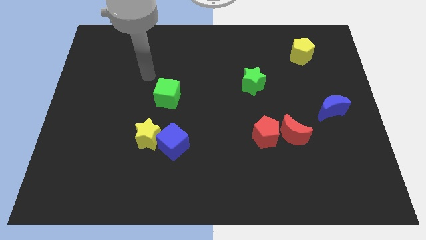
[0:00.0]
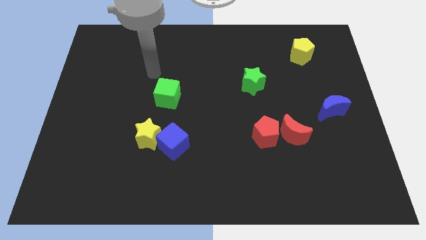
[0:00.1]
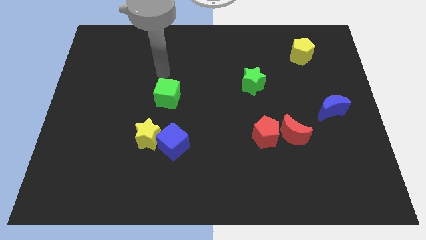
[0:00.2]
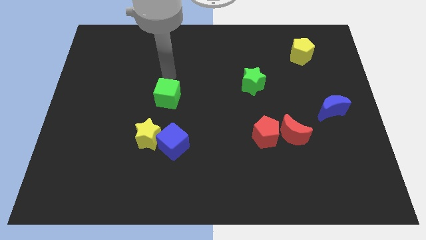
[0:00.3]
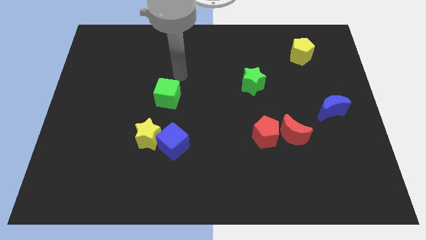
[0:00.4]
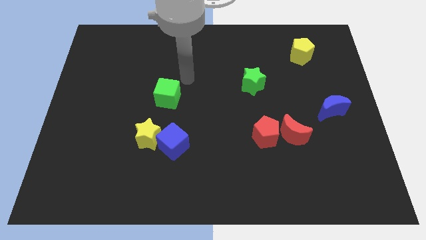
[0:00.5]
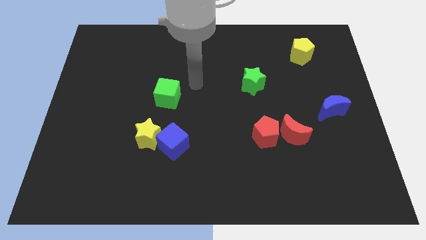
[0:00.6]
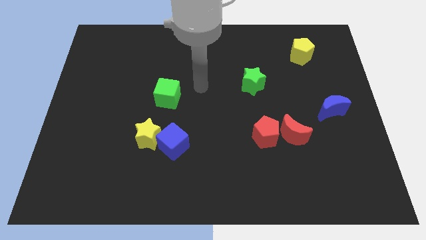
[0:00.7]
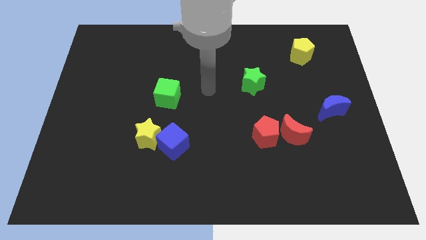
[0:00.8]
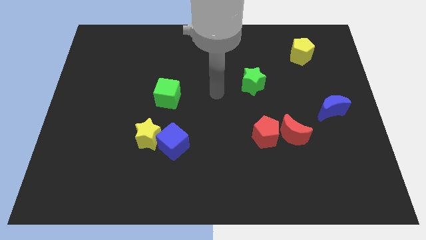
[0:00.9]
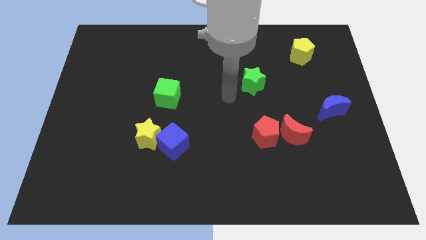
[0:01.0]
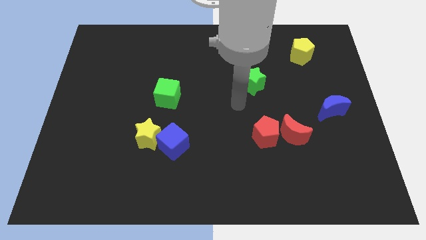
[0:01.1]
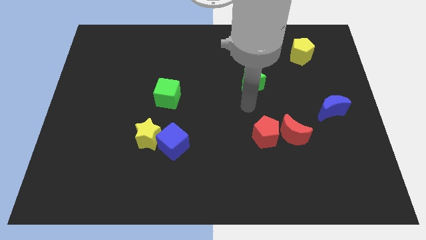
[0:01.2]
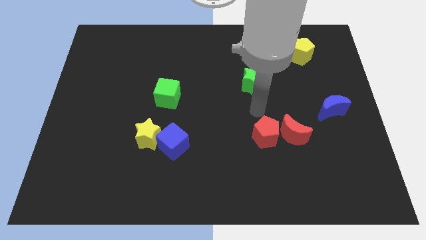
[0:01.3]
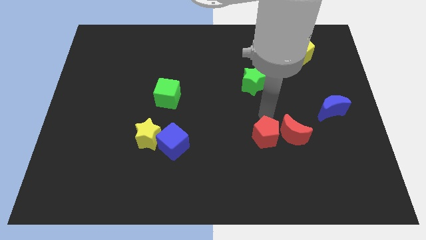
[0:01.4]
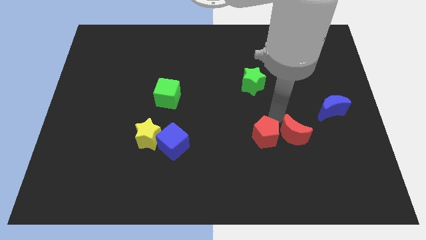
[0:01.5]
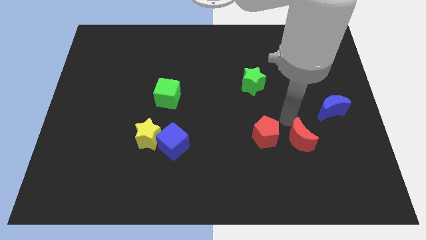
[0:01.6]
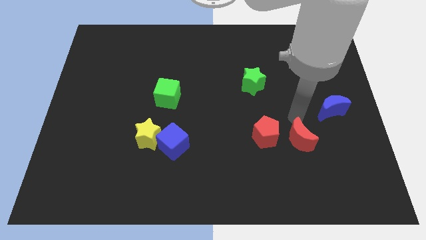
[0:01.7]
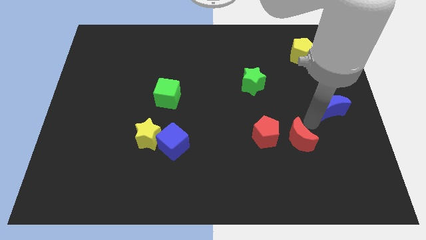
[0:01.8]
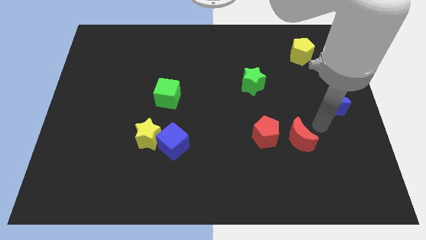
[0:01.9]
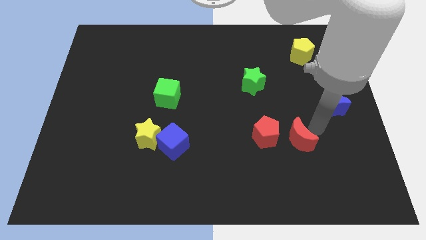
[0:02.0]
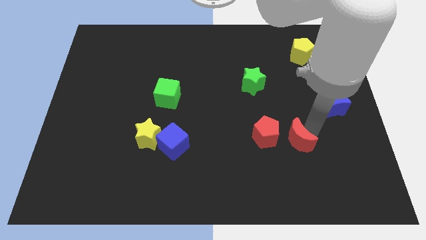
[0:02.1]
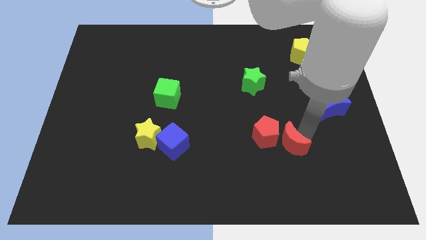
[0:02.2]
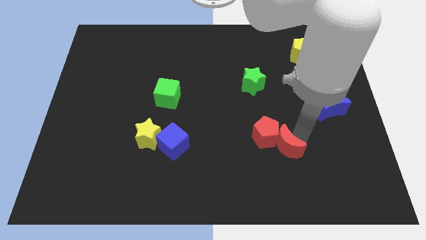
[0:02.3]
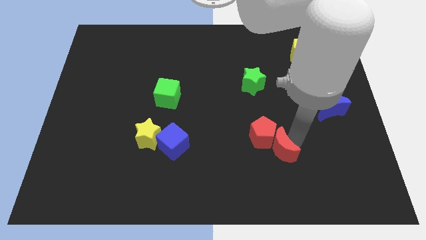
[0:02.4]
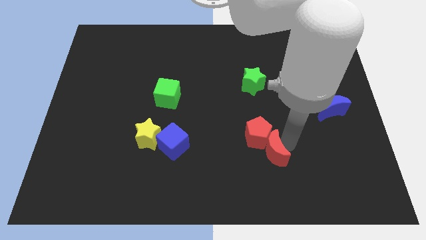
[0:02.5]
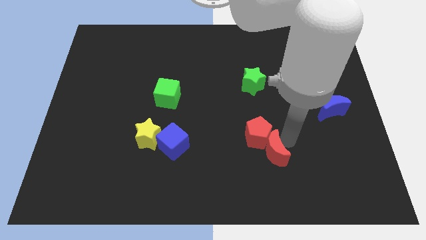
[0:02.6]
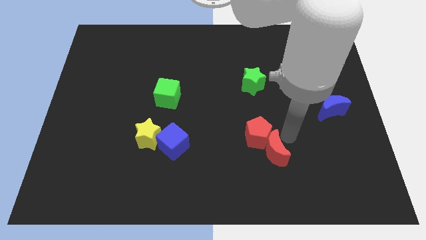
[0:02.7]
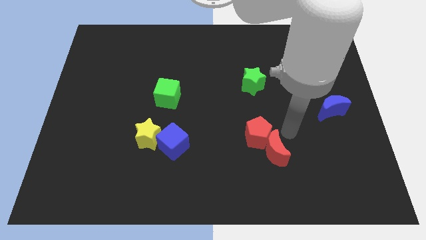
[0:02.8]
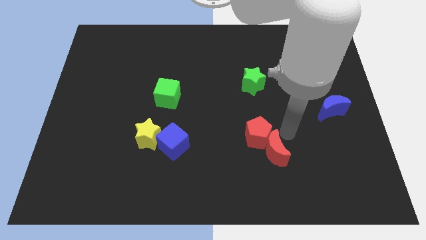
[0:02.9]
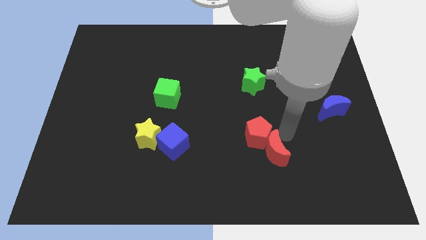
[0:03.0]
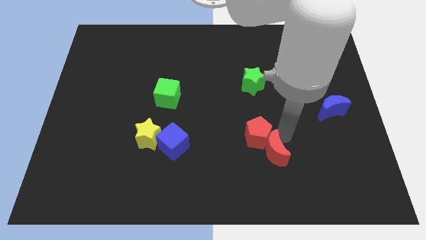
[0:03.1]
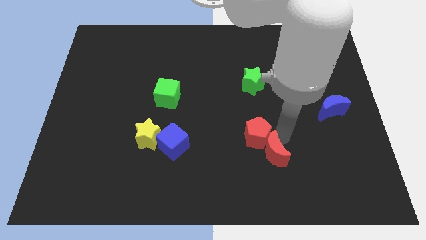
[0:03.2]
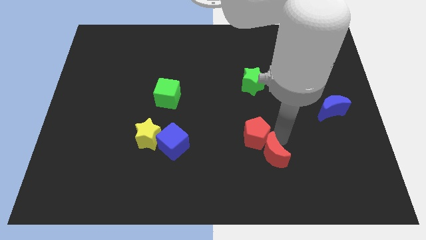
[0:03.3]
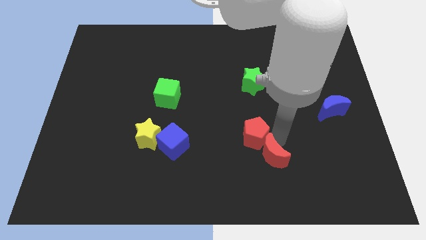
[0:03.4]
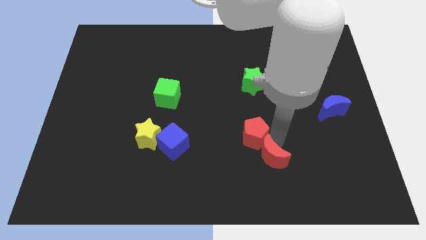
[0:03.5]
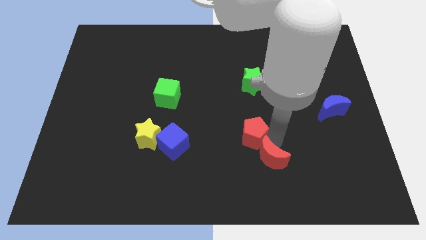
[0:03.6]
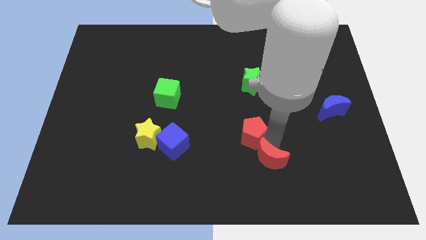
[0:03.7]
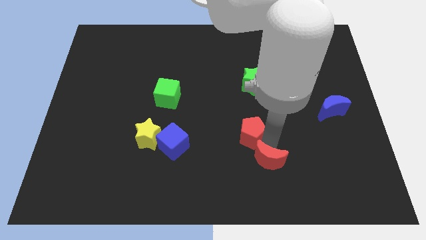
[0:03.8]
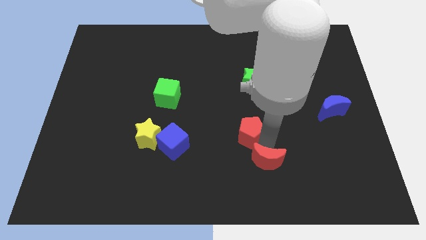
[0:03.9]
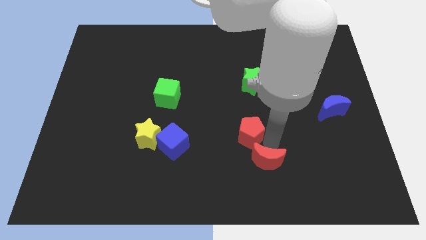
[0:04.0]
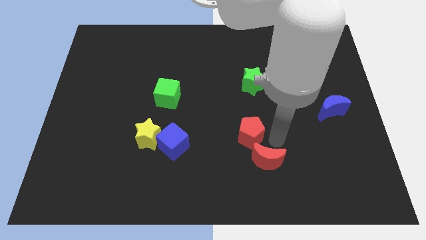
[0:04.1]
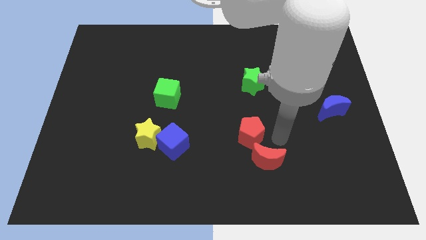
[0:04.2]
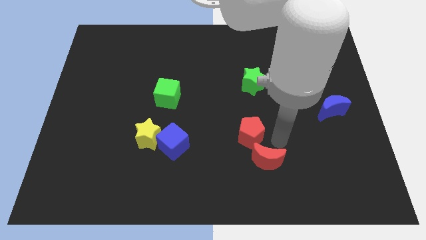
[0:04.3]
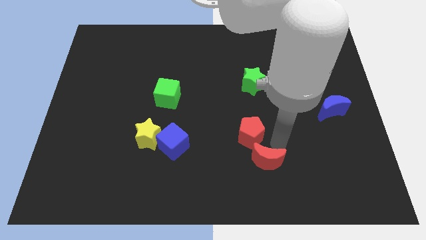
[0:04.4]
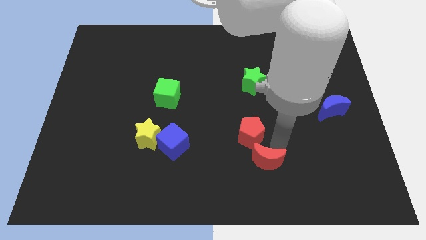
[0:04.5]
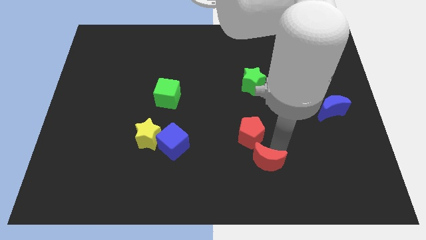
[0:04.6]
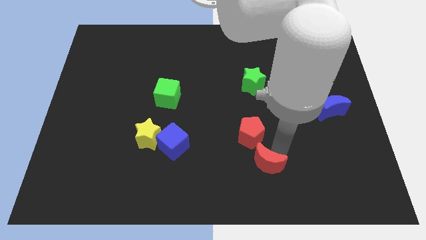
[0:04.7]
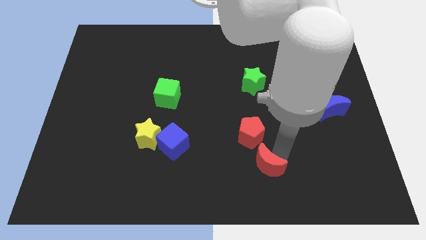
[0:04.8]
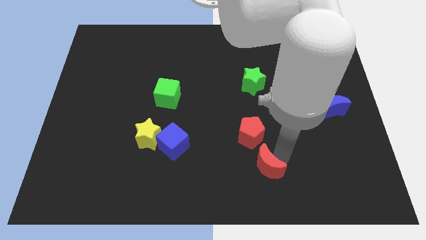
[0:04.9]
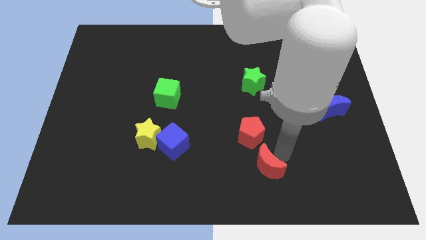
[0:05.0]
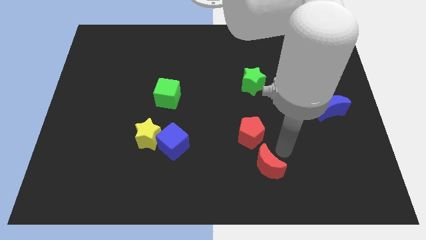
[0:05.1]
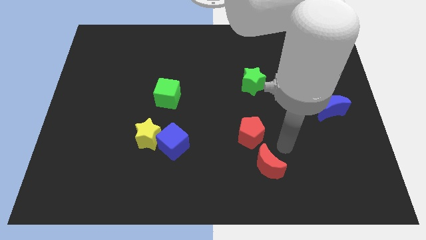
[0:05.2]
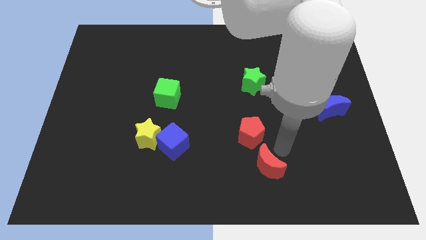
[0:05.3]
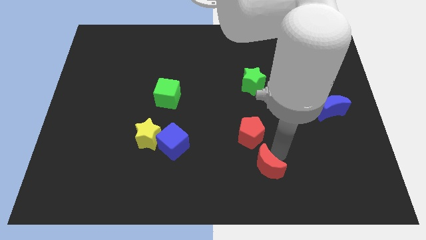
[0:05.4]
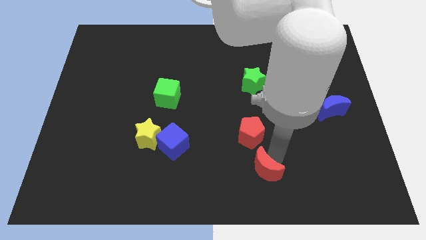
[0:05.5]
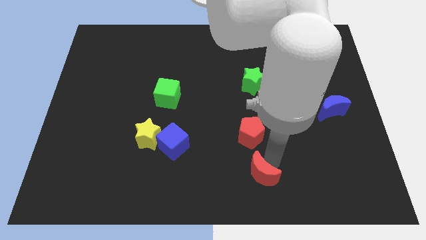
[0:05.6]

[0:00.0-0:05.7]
put the red moon to the bottom
